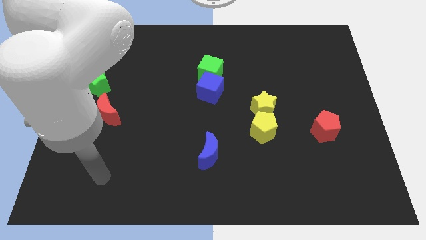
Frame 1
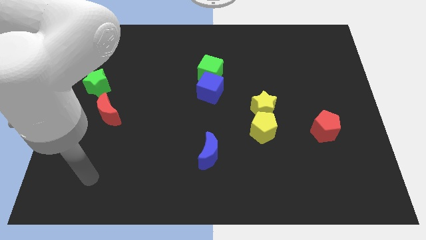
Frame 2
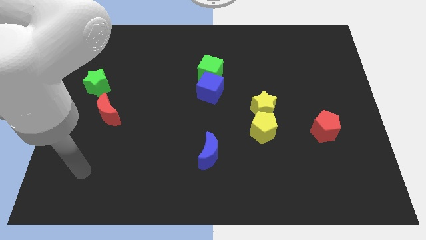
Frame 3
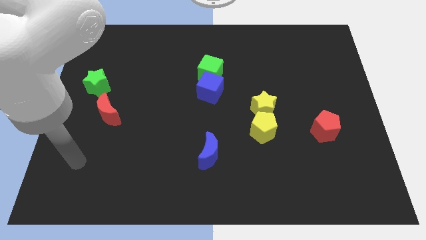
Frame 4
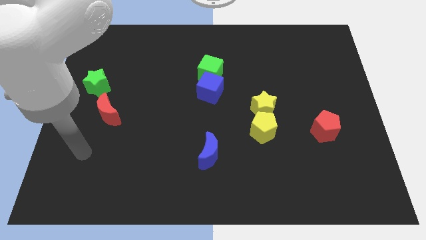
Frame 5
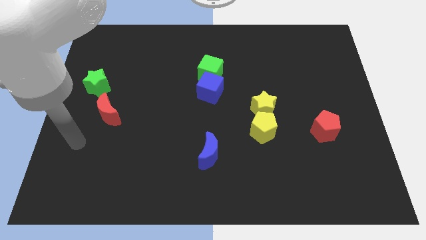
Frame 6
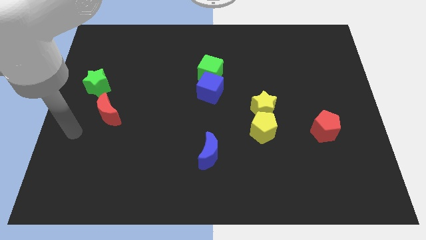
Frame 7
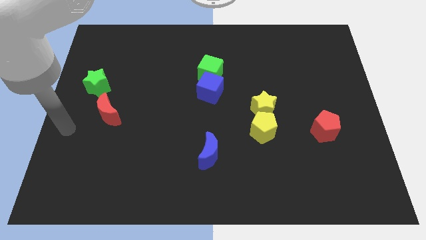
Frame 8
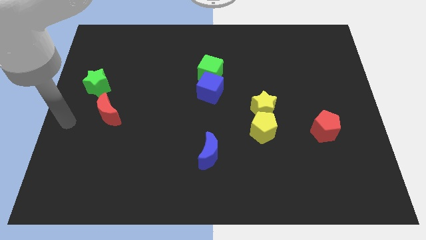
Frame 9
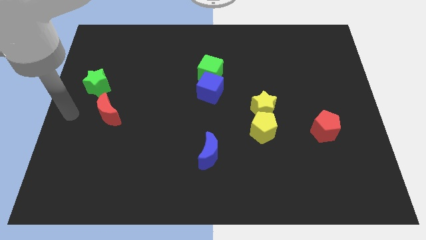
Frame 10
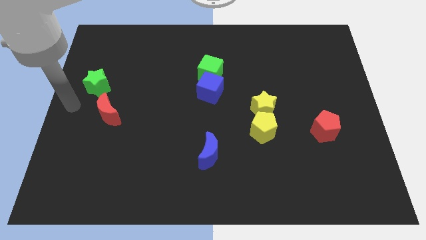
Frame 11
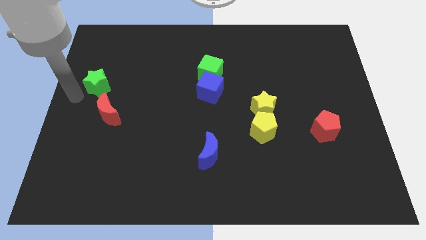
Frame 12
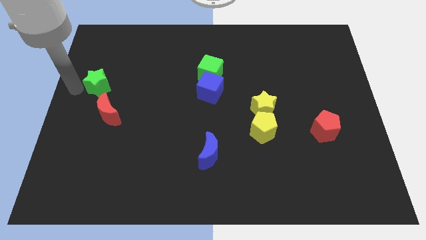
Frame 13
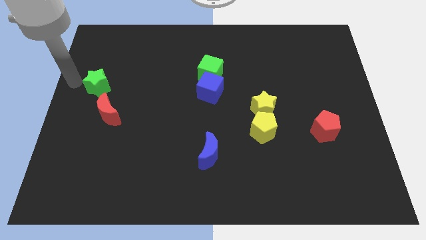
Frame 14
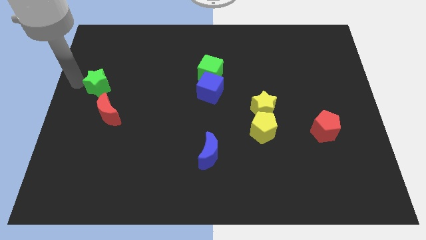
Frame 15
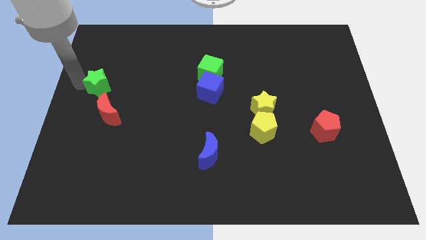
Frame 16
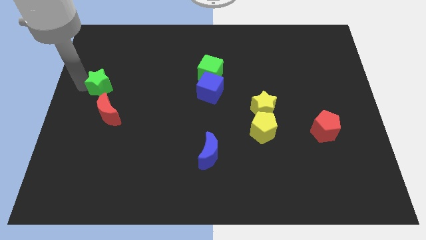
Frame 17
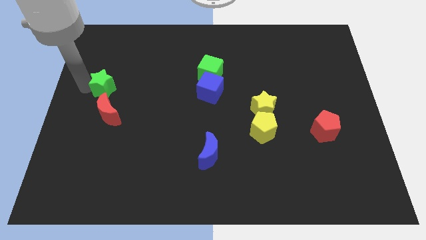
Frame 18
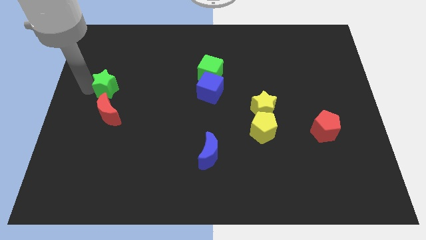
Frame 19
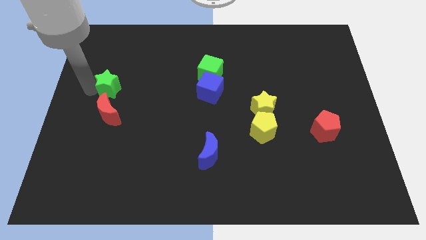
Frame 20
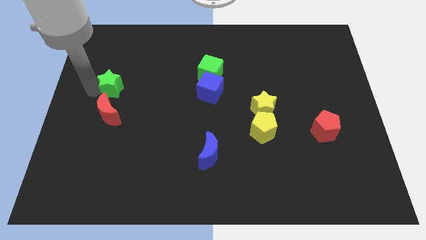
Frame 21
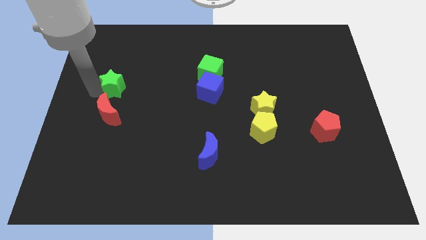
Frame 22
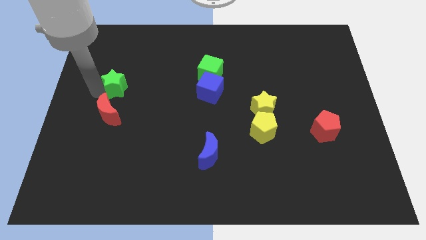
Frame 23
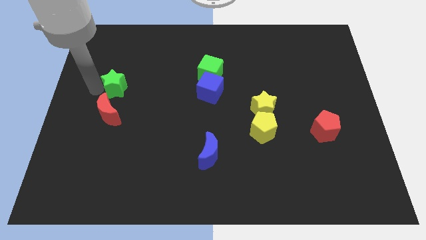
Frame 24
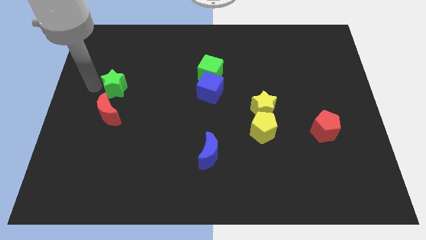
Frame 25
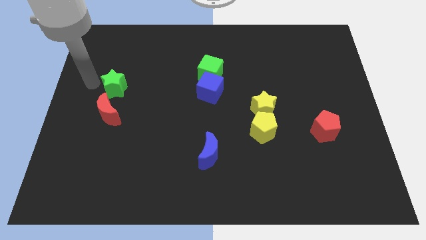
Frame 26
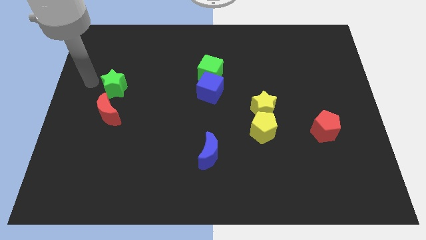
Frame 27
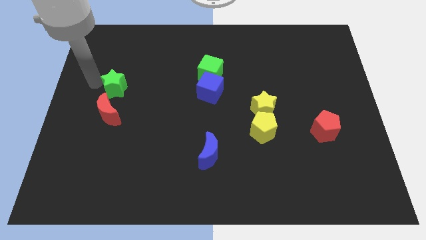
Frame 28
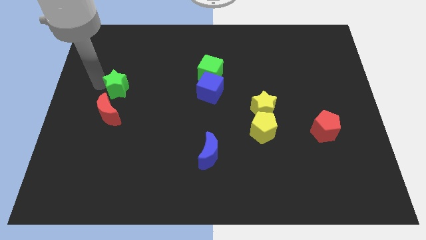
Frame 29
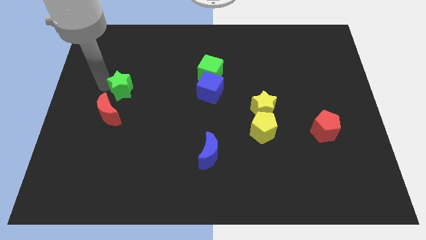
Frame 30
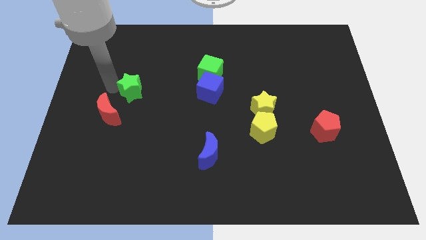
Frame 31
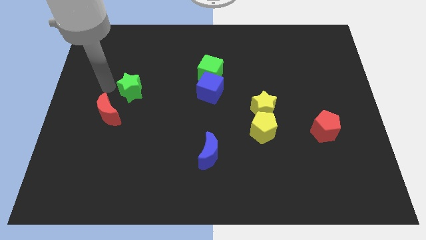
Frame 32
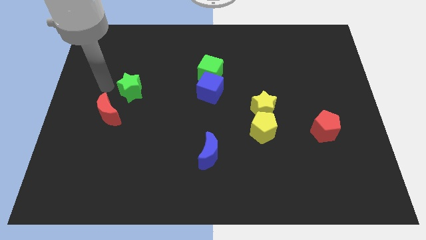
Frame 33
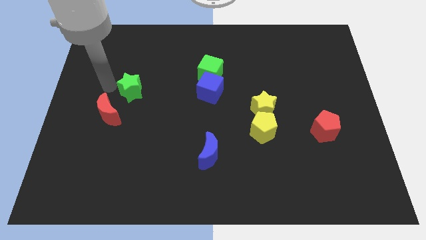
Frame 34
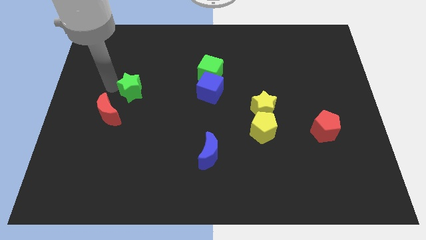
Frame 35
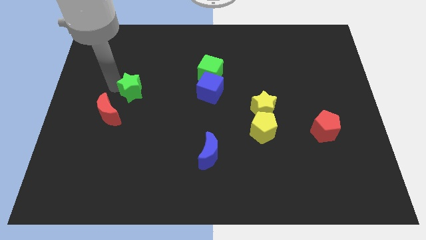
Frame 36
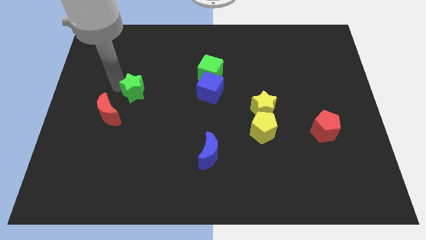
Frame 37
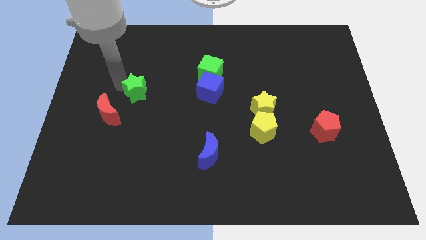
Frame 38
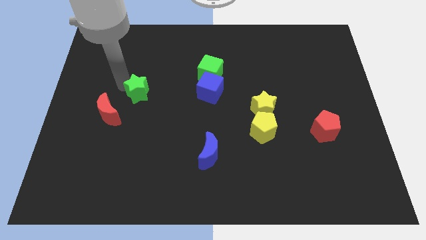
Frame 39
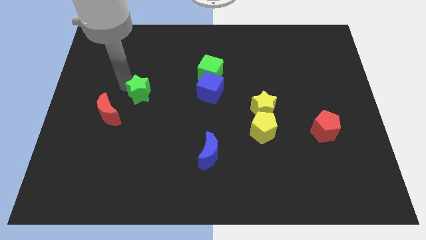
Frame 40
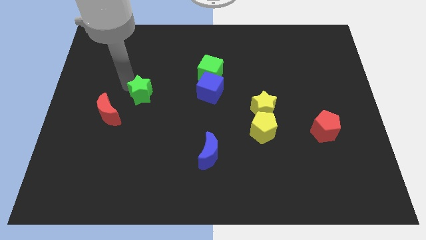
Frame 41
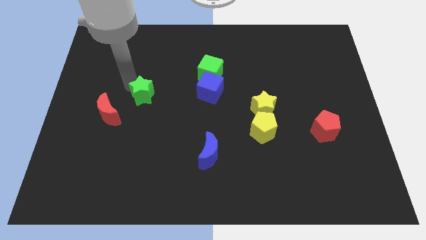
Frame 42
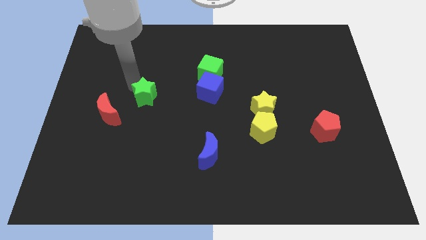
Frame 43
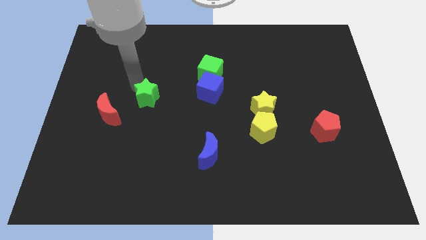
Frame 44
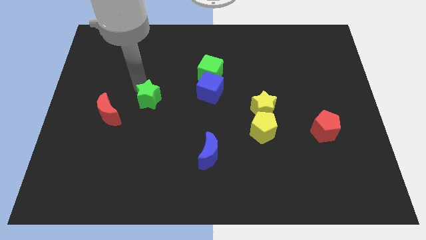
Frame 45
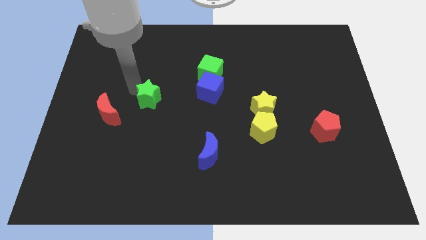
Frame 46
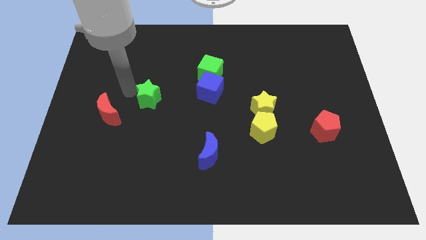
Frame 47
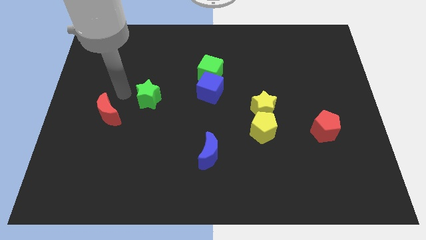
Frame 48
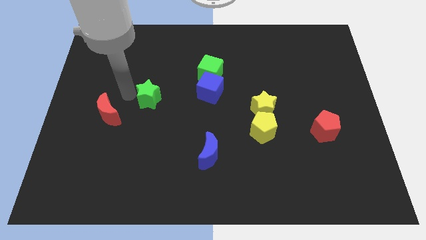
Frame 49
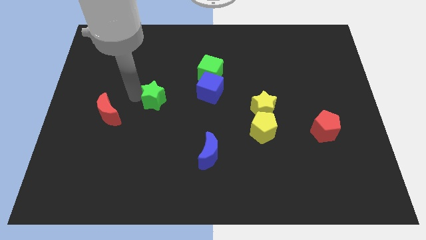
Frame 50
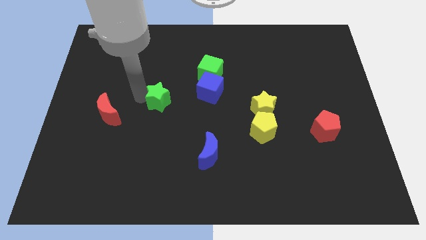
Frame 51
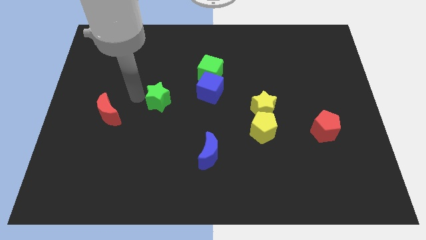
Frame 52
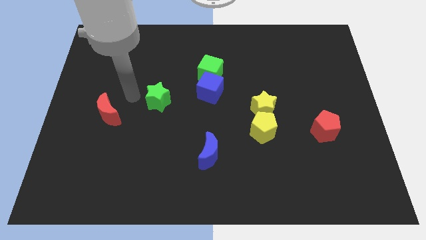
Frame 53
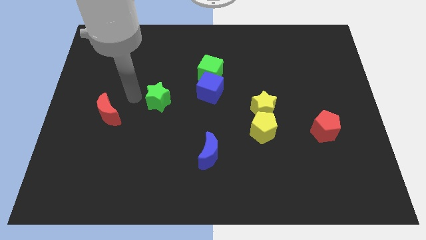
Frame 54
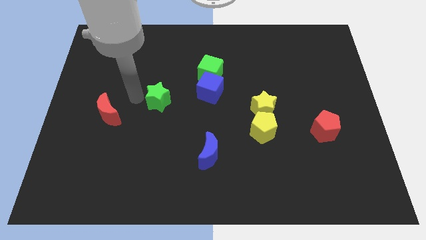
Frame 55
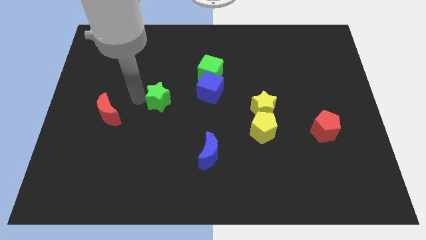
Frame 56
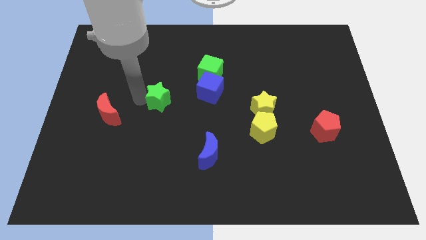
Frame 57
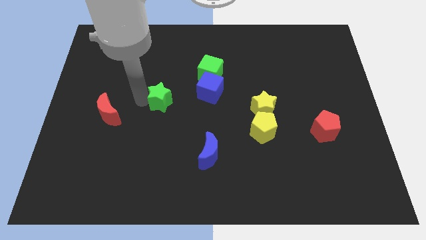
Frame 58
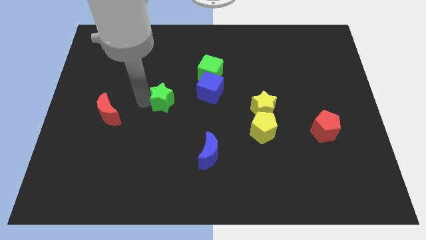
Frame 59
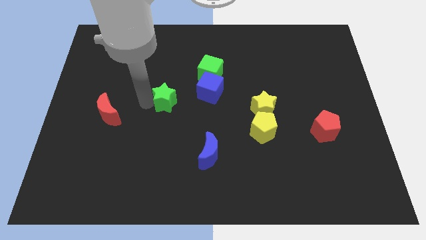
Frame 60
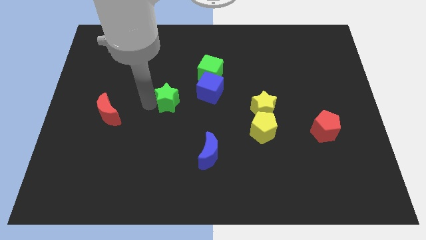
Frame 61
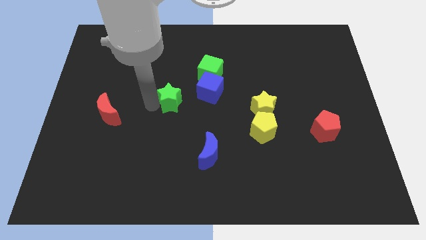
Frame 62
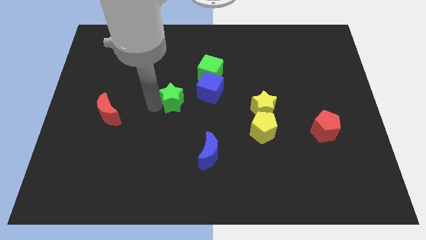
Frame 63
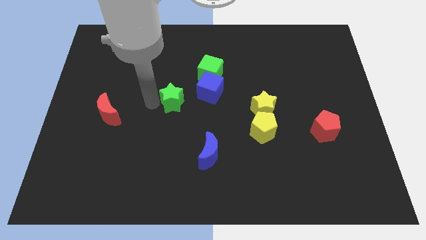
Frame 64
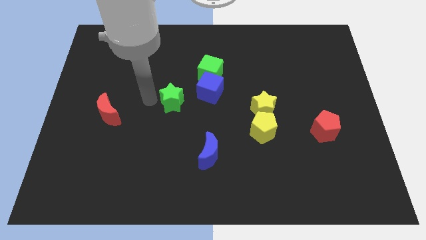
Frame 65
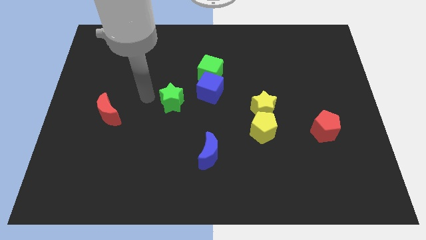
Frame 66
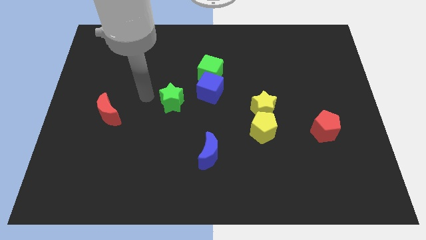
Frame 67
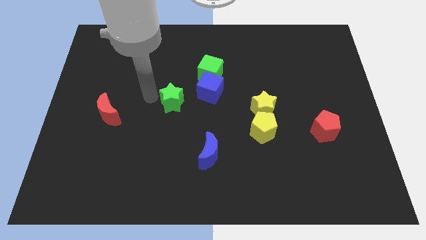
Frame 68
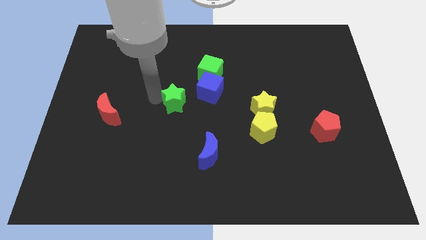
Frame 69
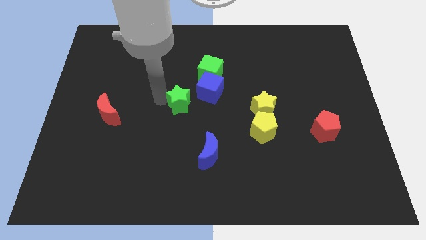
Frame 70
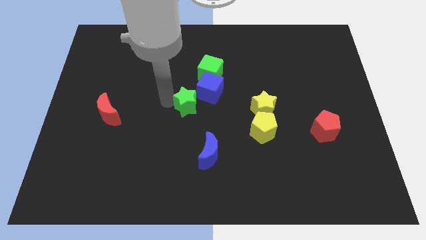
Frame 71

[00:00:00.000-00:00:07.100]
move the green star to the right

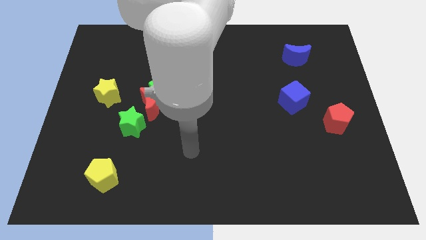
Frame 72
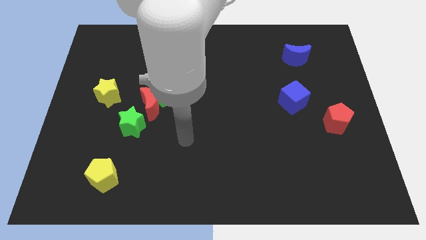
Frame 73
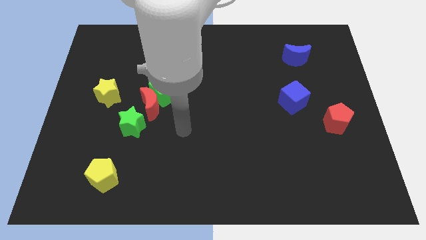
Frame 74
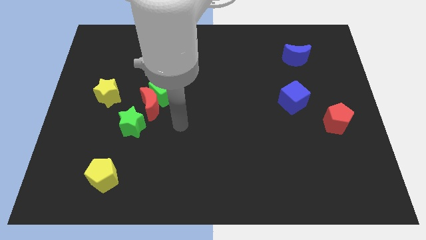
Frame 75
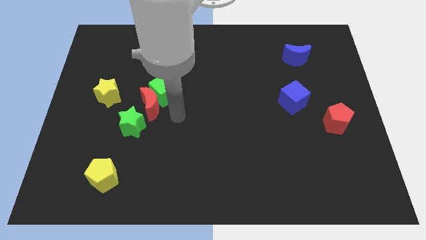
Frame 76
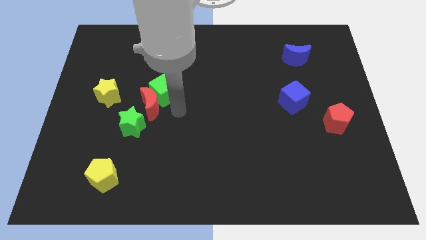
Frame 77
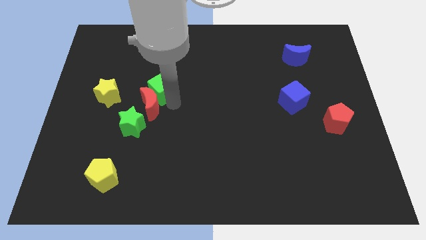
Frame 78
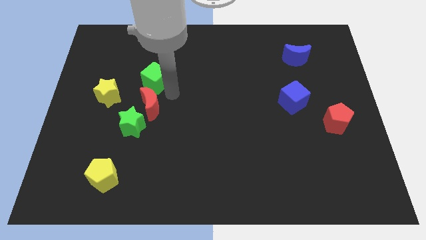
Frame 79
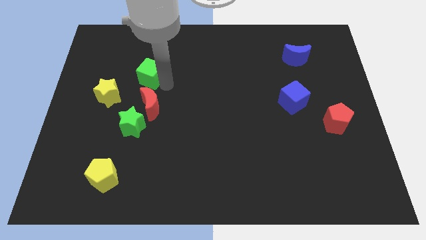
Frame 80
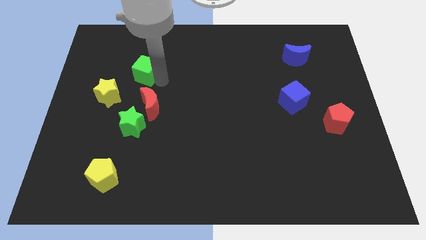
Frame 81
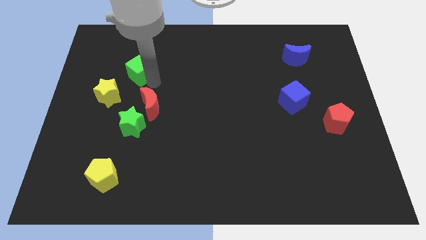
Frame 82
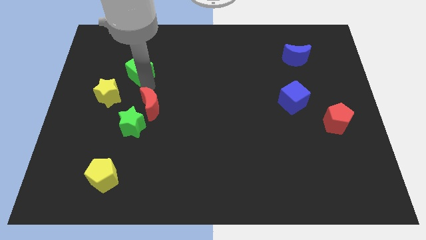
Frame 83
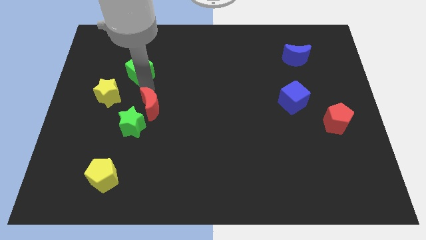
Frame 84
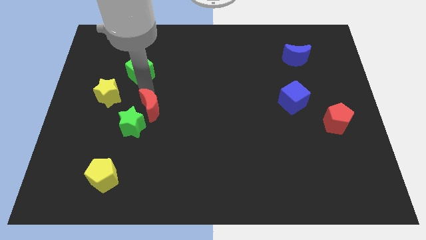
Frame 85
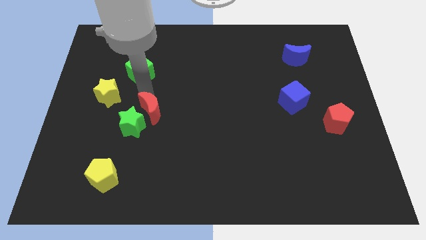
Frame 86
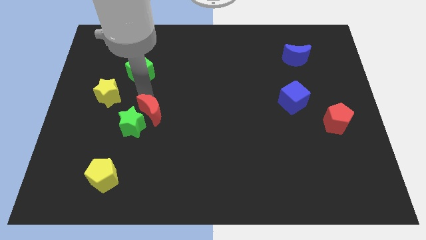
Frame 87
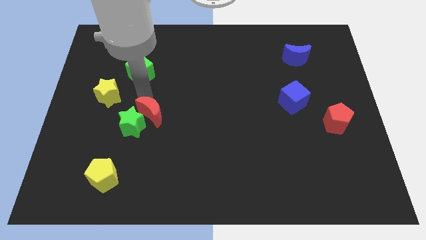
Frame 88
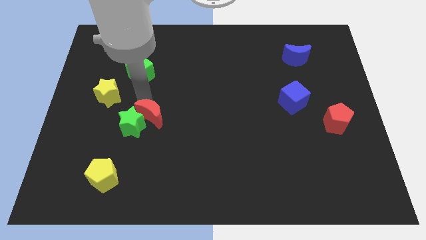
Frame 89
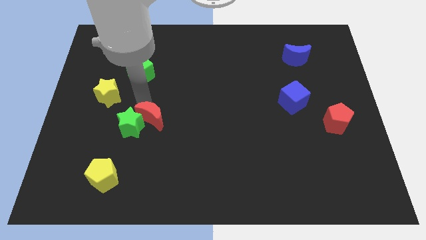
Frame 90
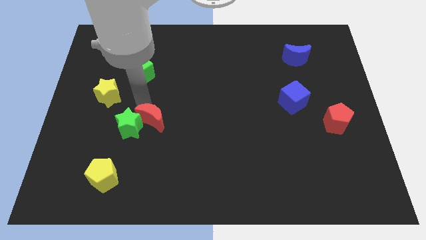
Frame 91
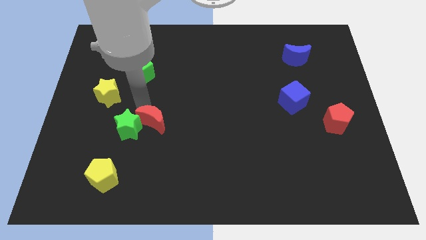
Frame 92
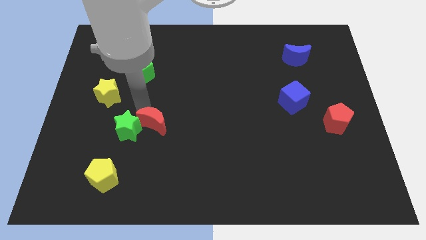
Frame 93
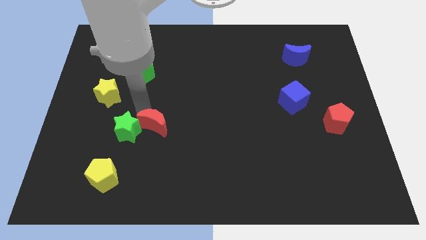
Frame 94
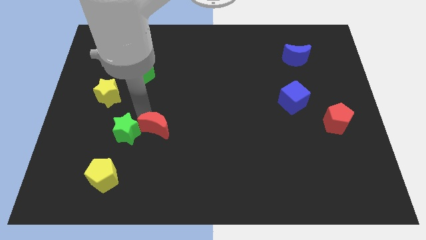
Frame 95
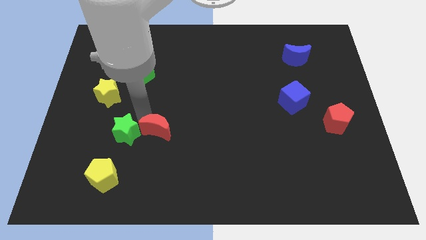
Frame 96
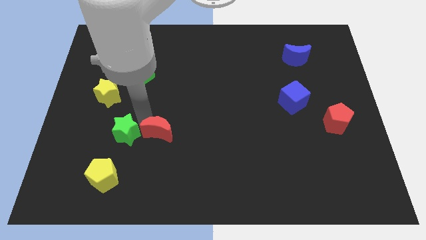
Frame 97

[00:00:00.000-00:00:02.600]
slide the red moon down slightly
